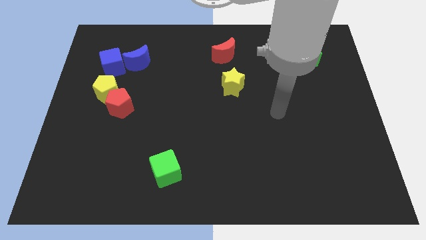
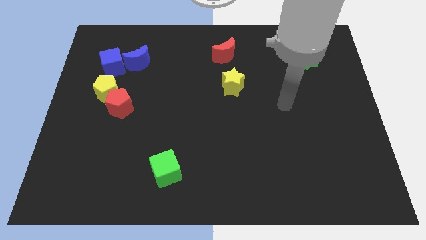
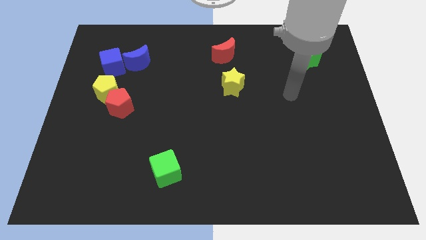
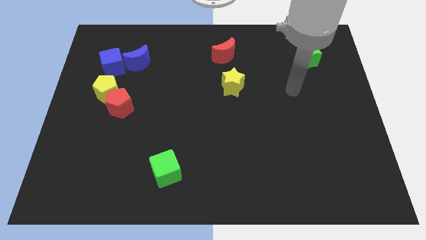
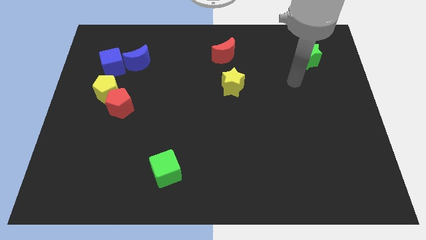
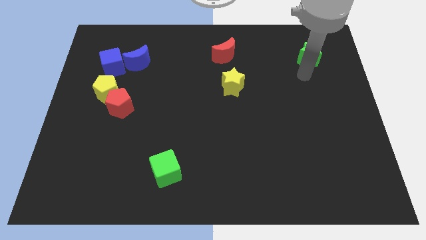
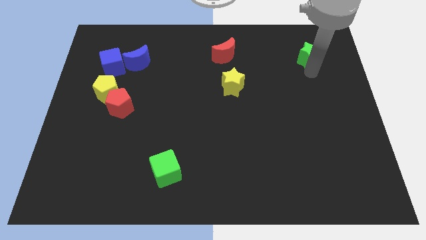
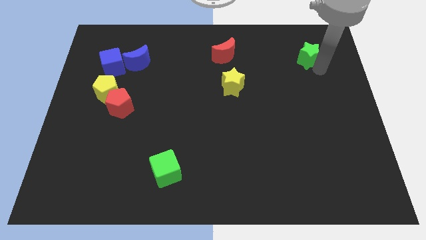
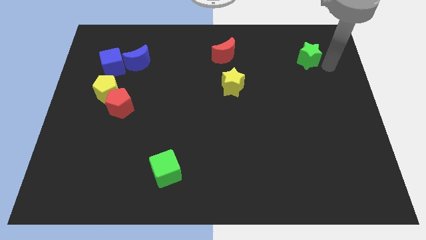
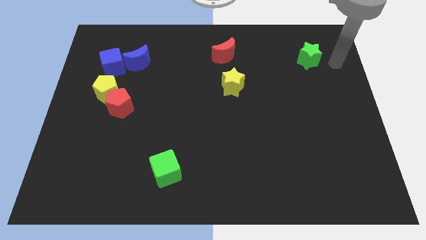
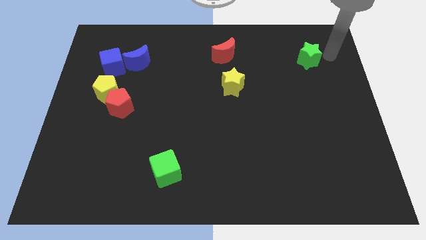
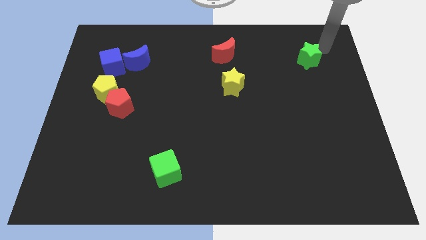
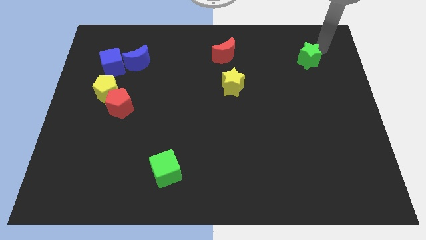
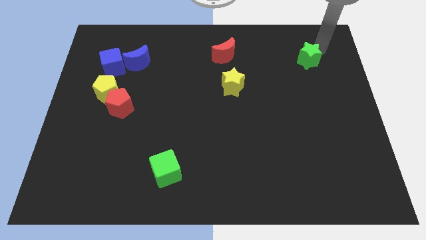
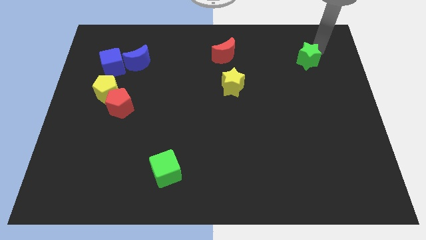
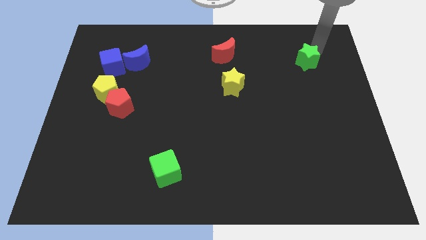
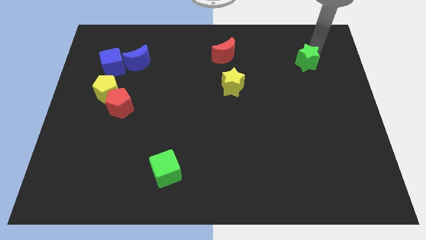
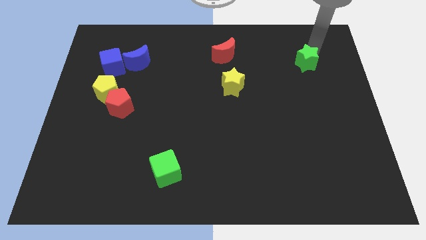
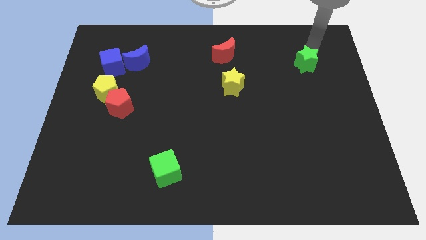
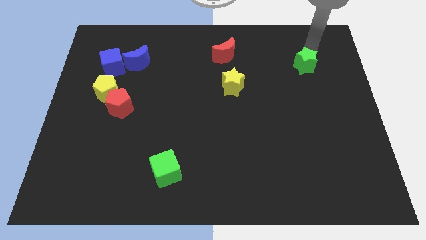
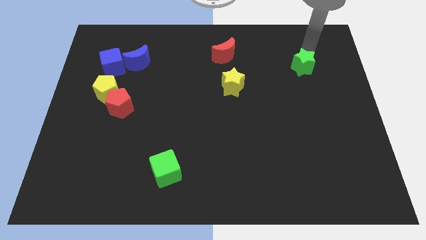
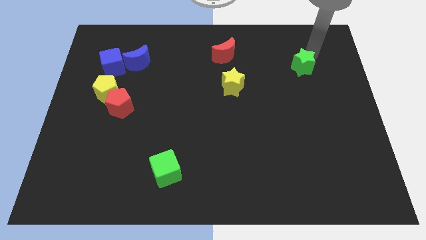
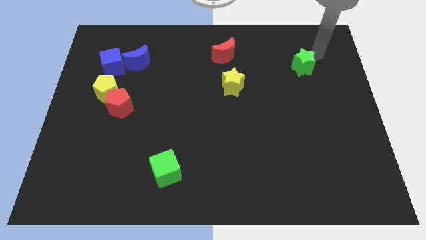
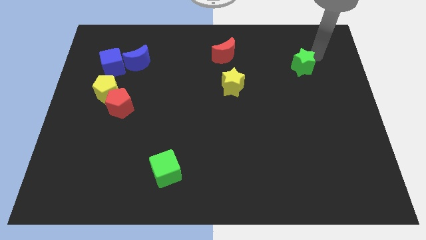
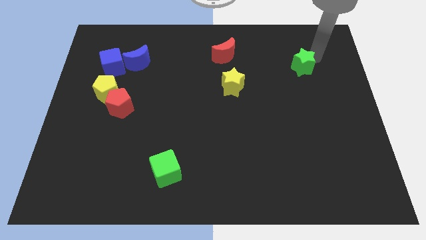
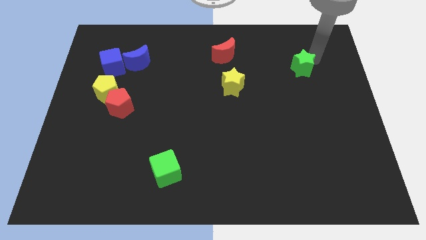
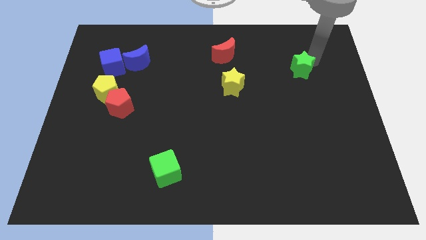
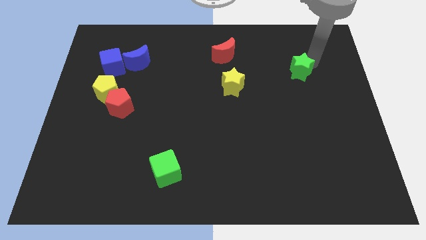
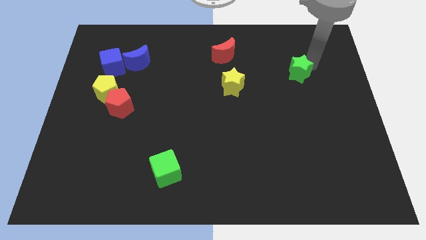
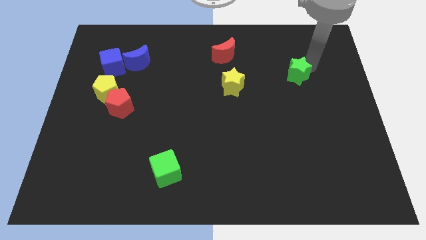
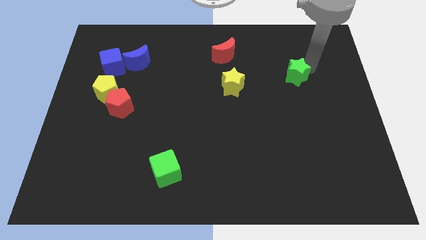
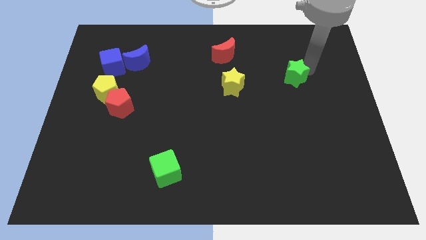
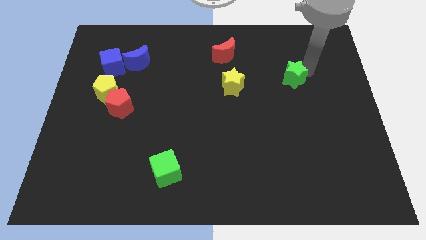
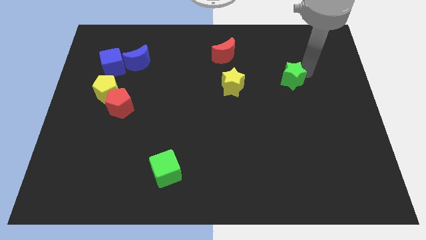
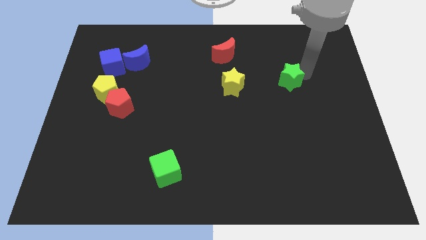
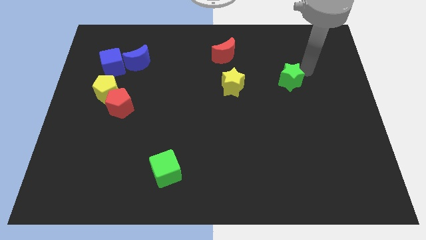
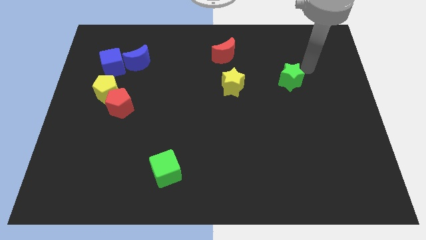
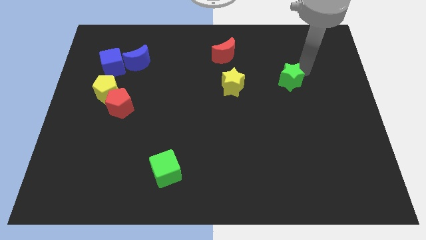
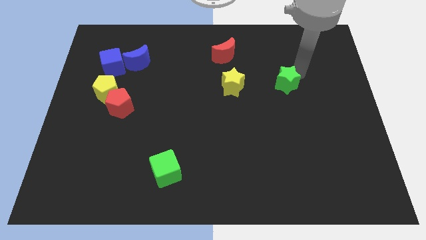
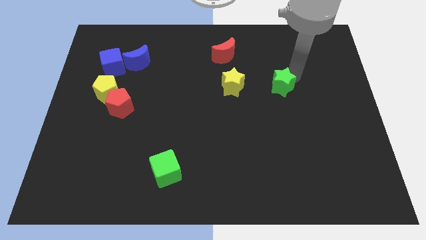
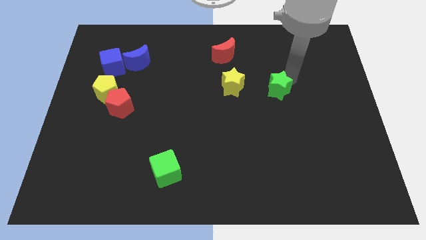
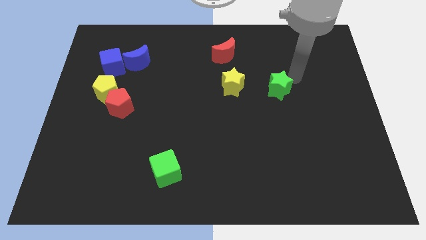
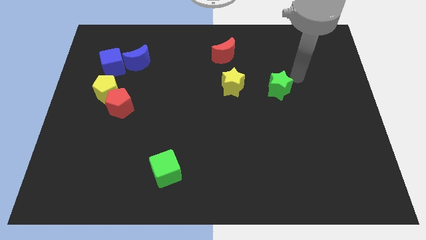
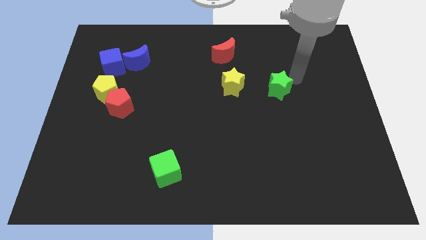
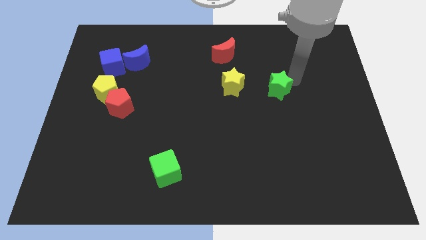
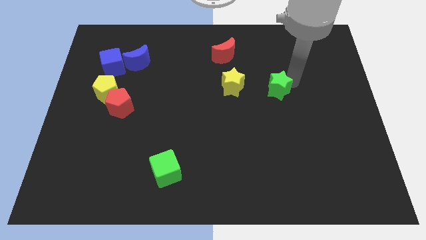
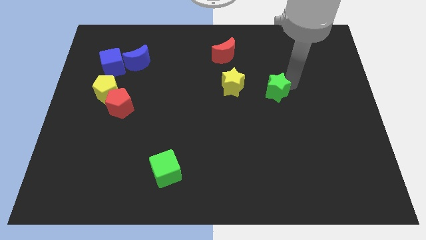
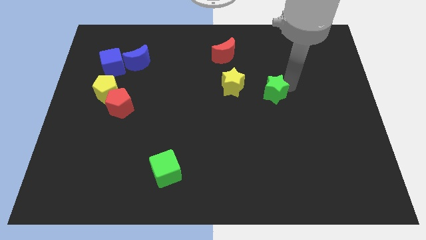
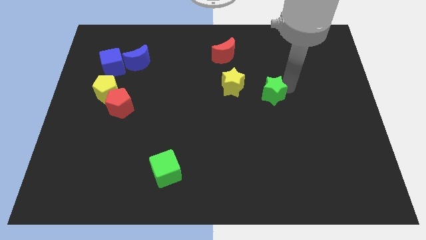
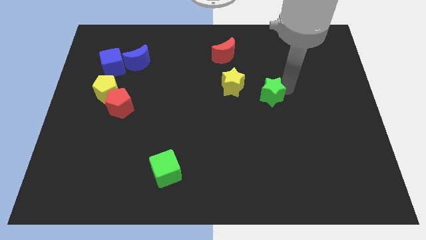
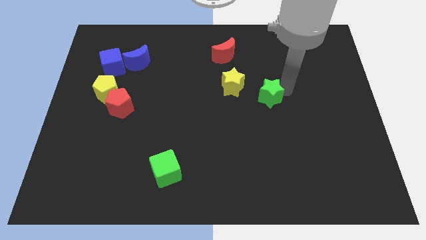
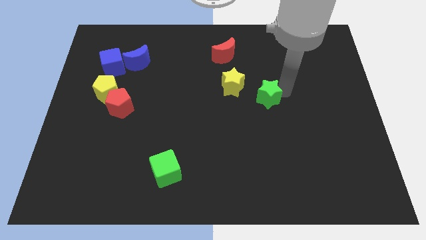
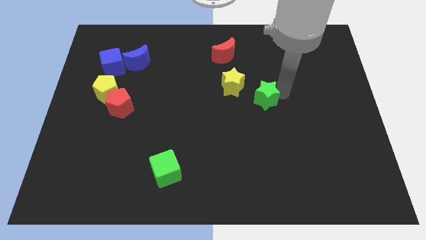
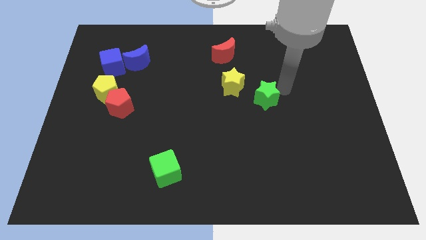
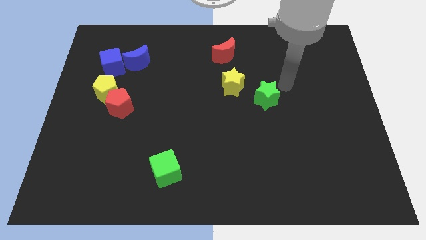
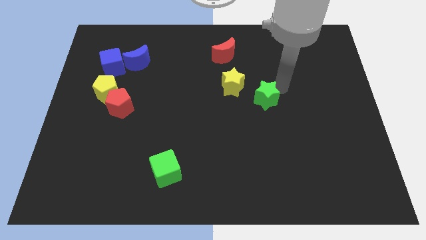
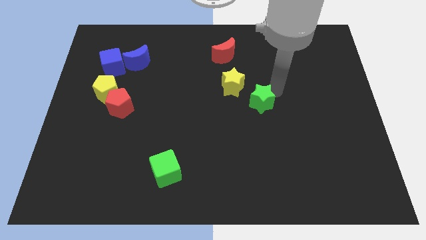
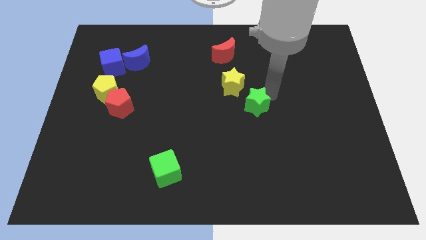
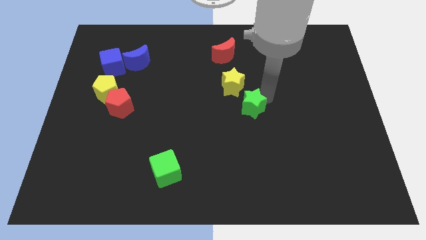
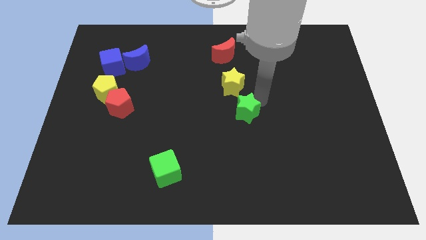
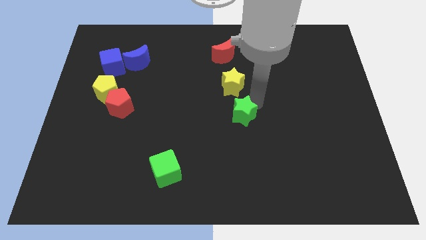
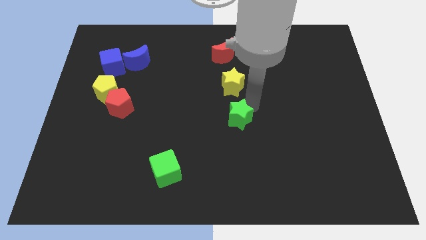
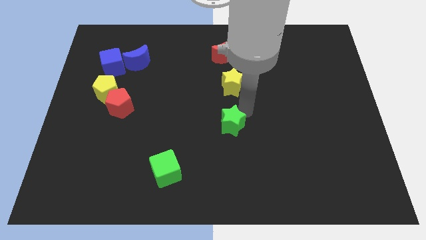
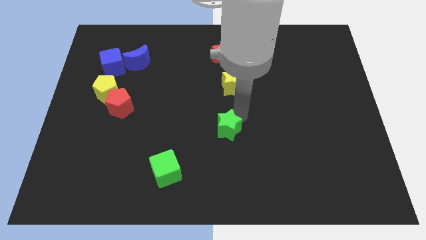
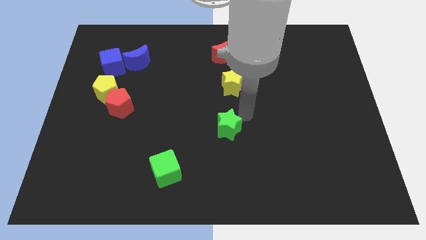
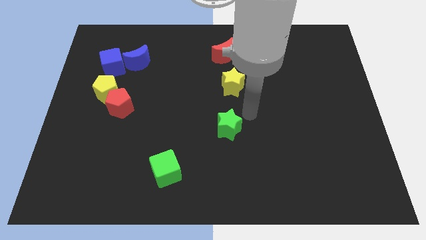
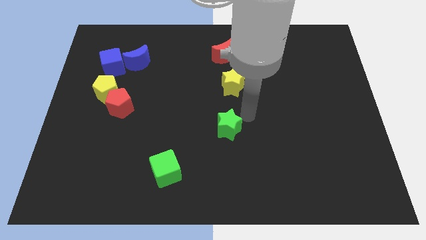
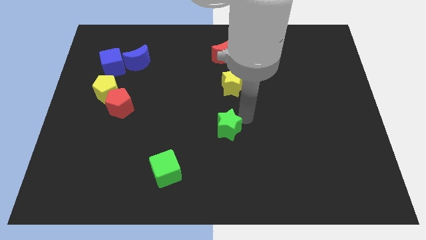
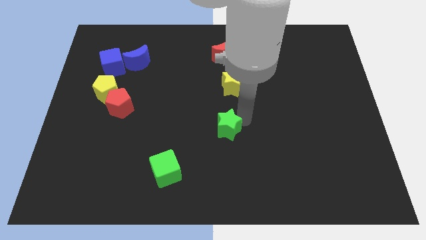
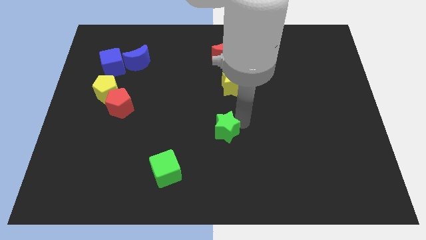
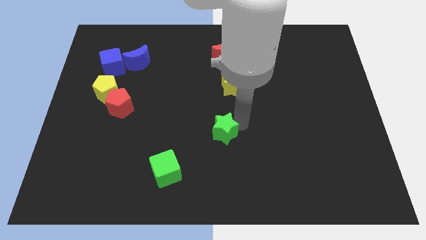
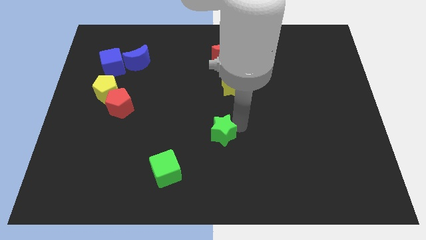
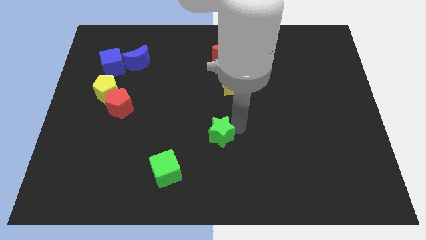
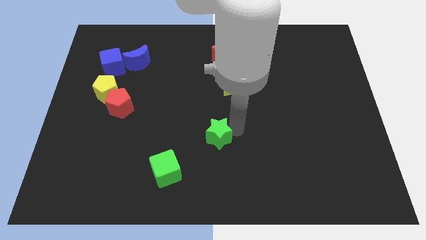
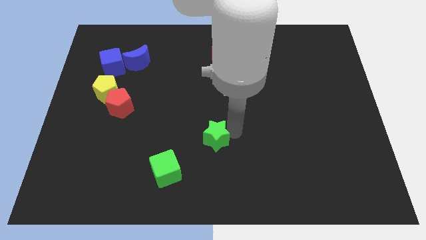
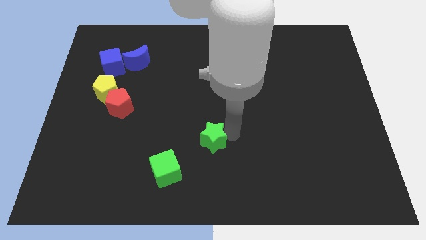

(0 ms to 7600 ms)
move the green star to the top right of the green cube
